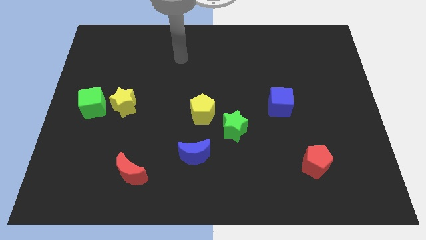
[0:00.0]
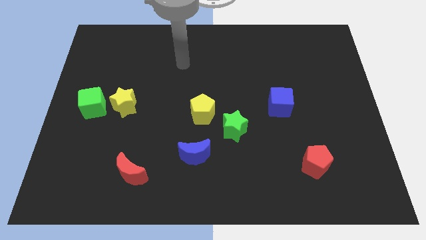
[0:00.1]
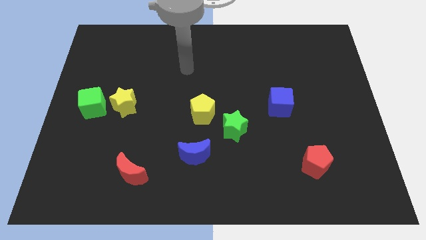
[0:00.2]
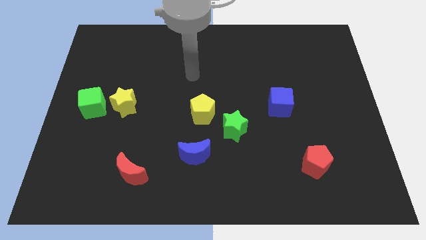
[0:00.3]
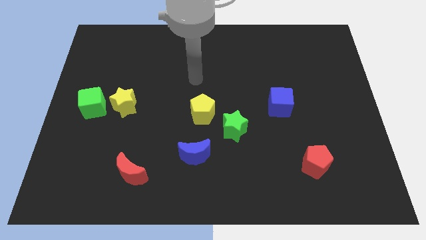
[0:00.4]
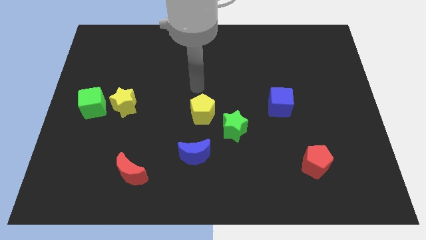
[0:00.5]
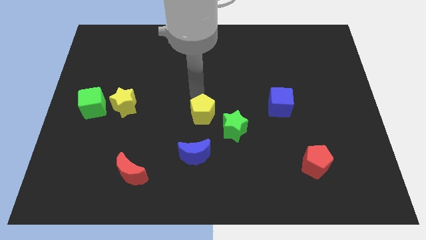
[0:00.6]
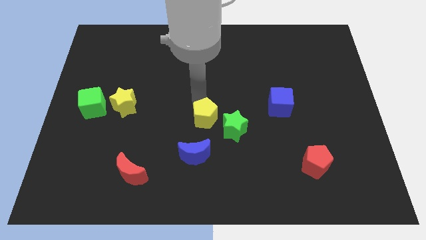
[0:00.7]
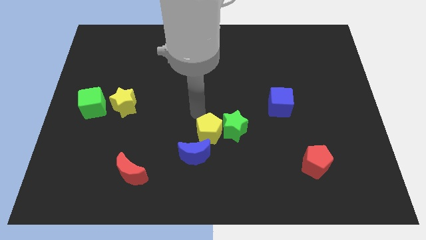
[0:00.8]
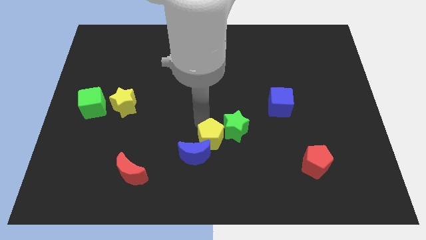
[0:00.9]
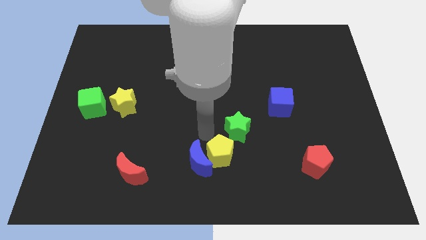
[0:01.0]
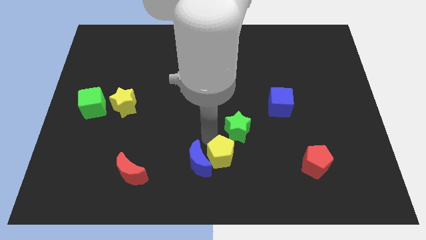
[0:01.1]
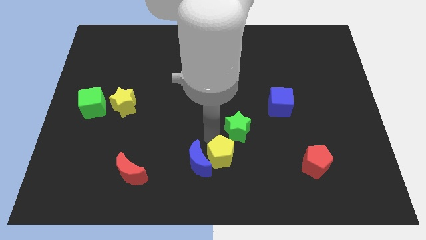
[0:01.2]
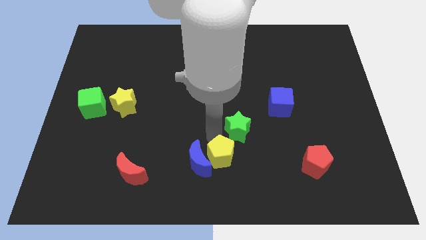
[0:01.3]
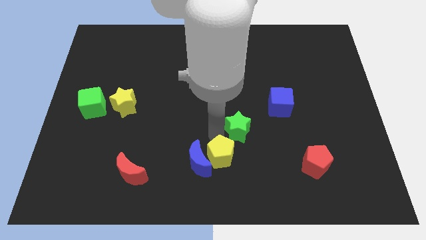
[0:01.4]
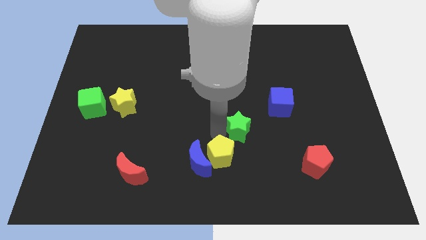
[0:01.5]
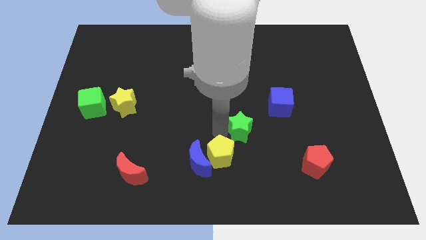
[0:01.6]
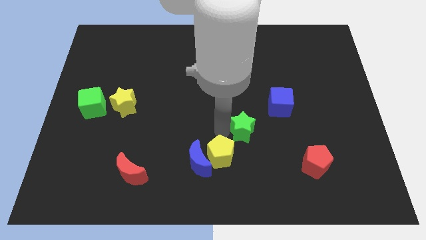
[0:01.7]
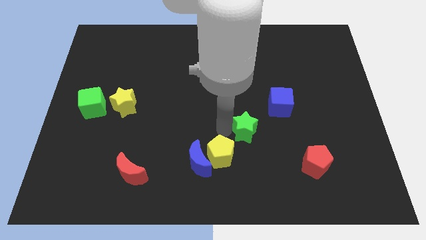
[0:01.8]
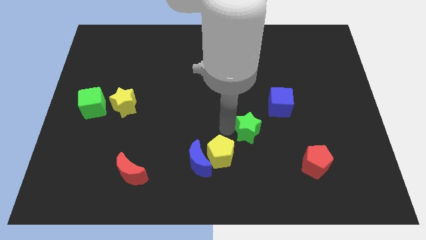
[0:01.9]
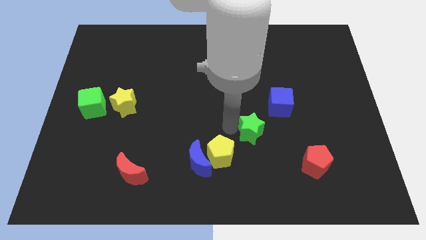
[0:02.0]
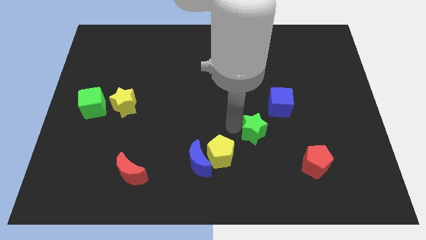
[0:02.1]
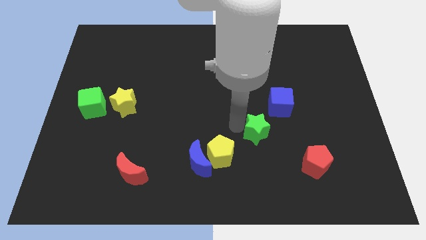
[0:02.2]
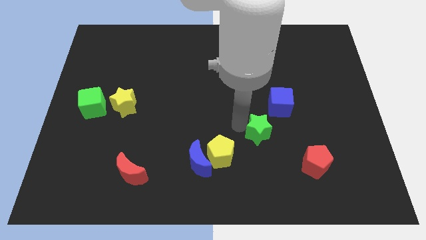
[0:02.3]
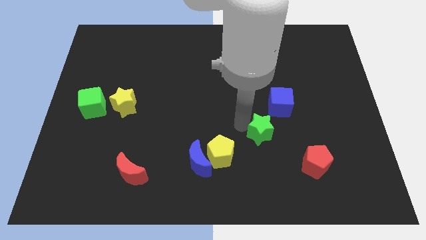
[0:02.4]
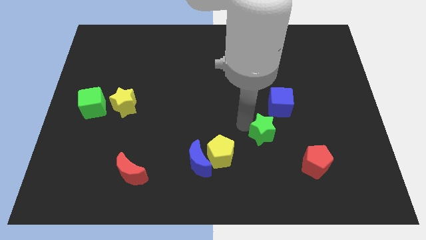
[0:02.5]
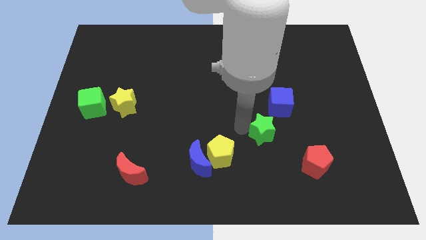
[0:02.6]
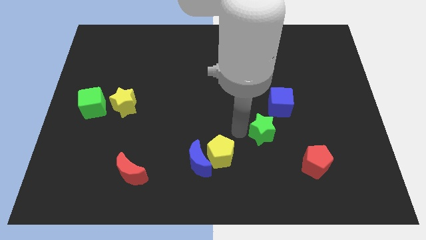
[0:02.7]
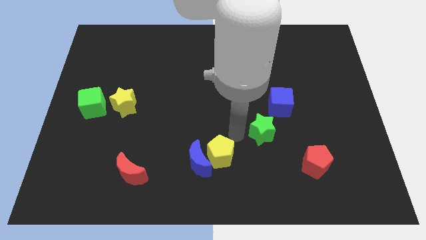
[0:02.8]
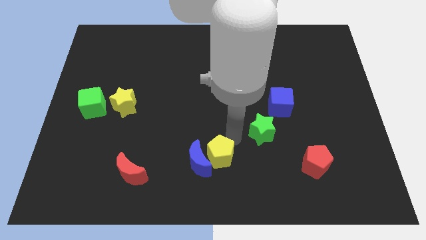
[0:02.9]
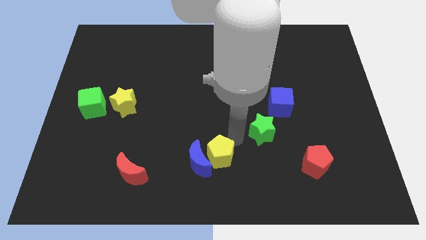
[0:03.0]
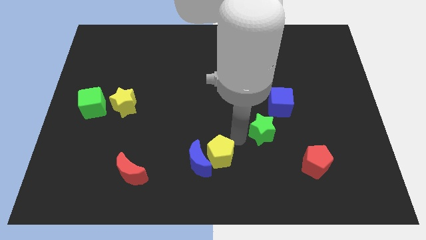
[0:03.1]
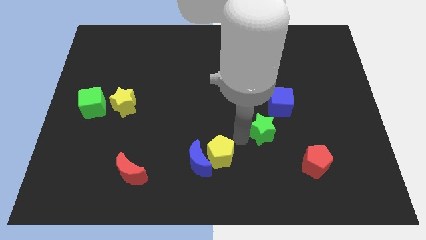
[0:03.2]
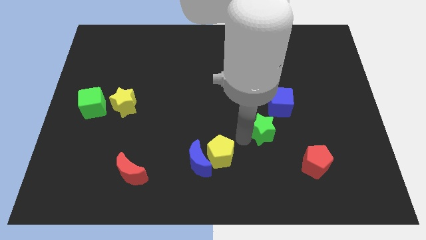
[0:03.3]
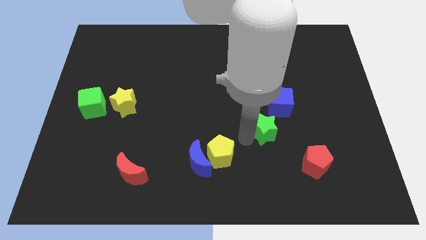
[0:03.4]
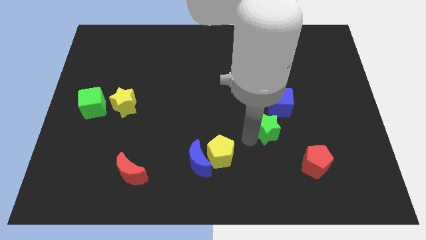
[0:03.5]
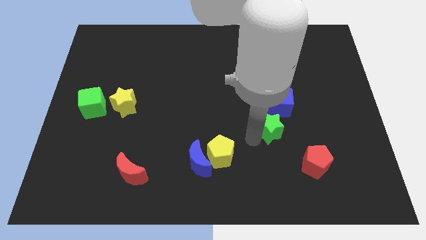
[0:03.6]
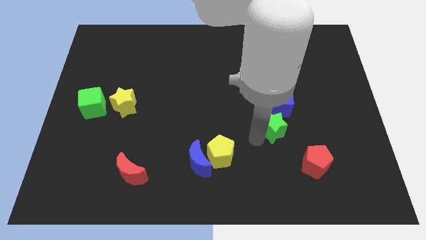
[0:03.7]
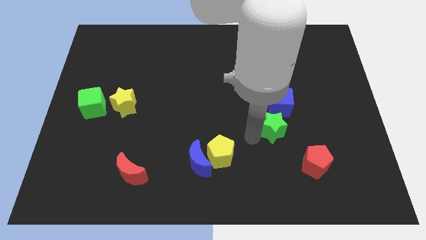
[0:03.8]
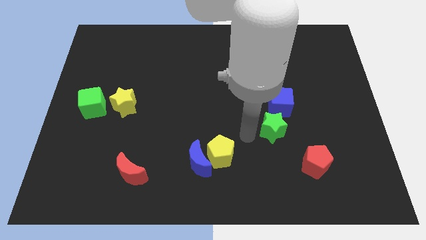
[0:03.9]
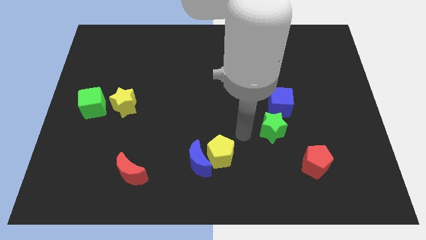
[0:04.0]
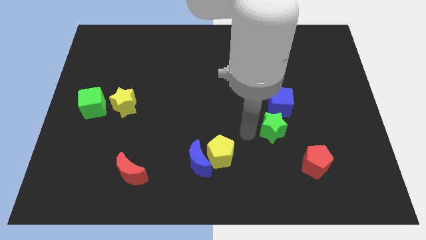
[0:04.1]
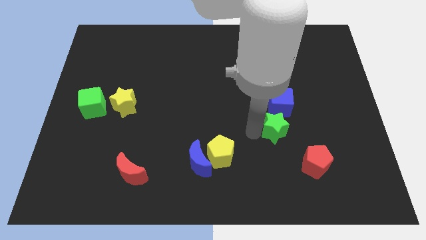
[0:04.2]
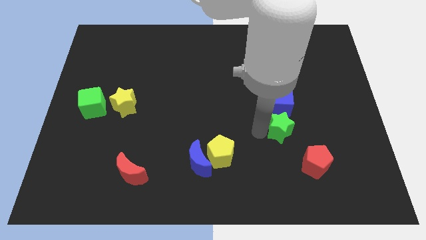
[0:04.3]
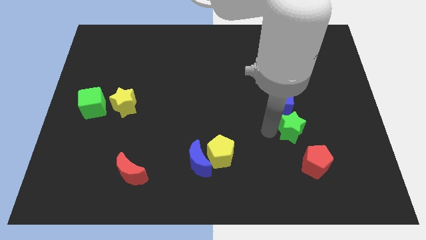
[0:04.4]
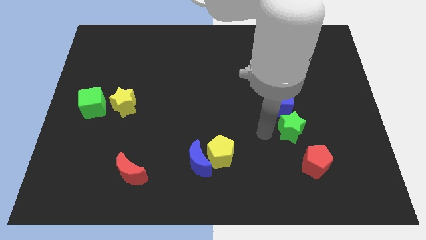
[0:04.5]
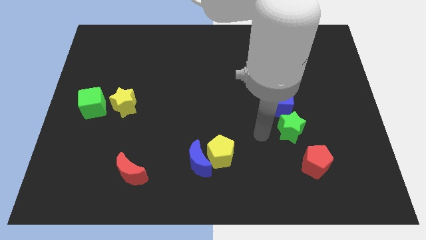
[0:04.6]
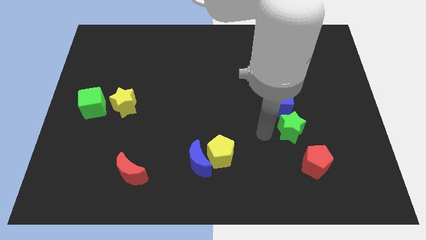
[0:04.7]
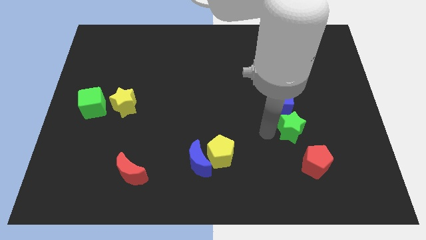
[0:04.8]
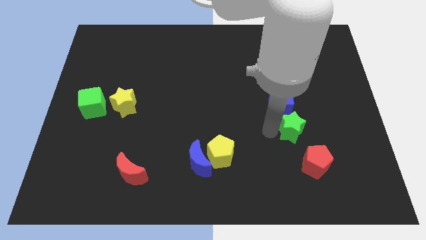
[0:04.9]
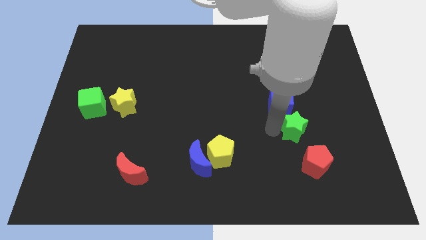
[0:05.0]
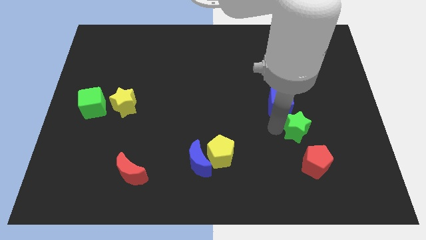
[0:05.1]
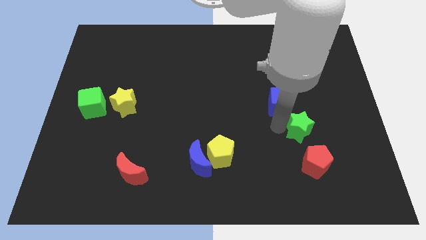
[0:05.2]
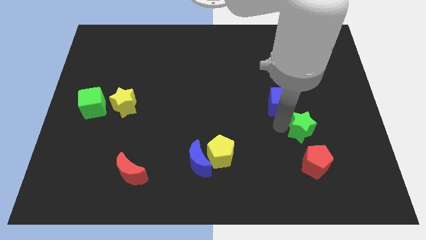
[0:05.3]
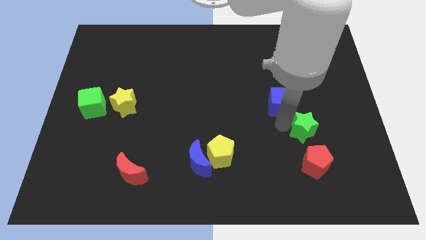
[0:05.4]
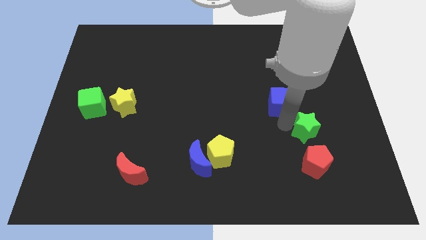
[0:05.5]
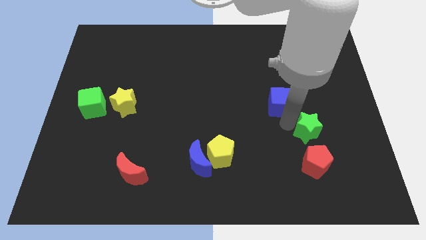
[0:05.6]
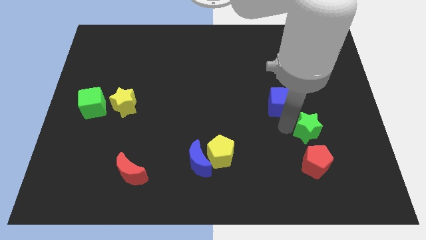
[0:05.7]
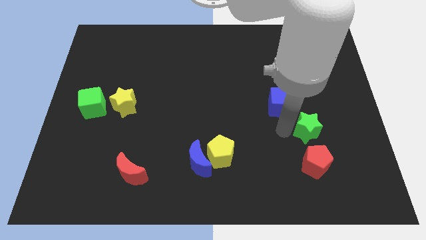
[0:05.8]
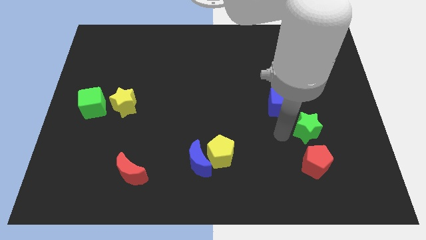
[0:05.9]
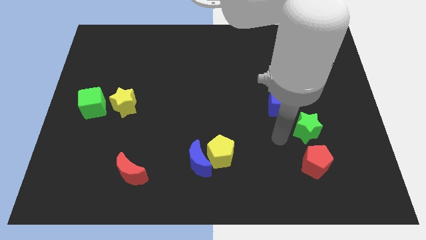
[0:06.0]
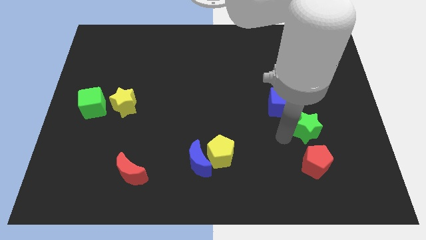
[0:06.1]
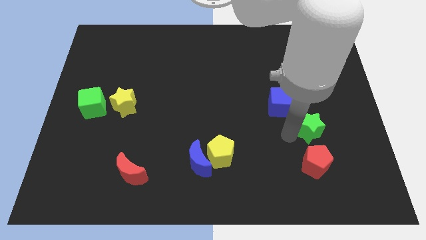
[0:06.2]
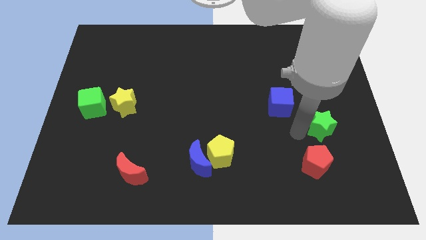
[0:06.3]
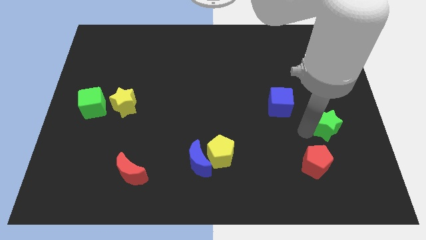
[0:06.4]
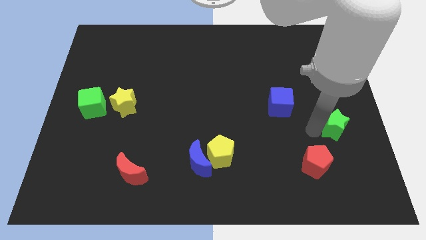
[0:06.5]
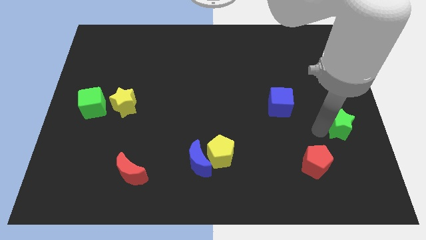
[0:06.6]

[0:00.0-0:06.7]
move the green star to the right side
